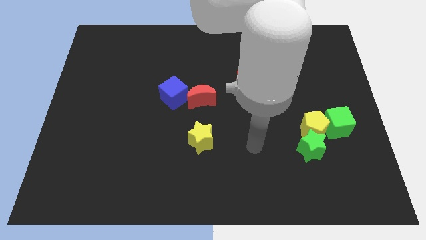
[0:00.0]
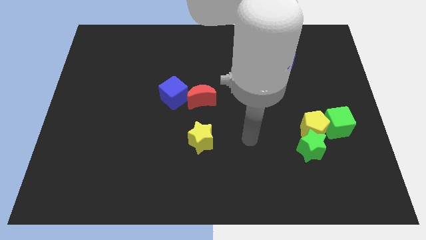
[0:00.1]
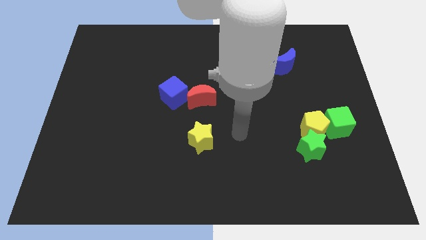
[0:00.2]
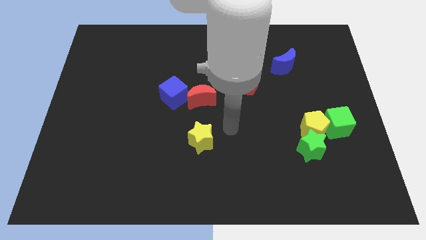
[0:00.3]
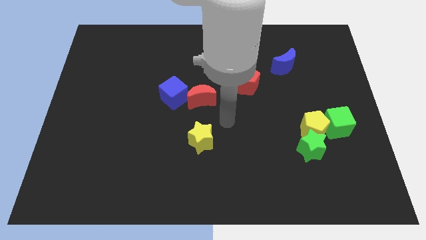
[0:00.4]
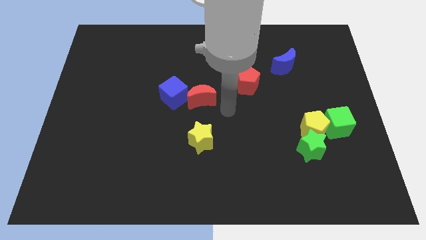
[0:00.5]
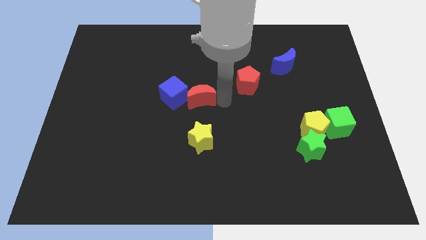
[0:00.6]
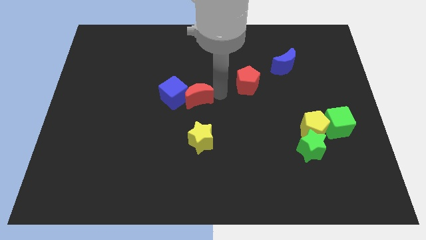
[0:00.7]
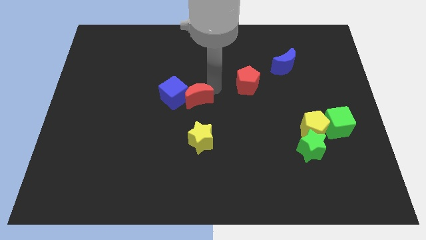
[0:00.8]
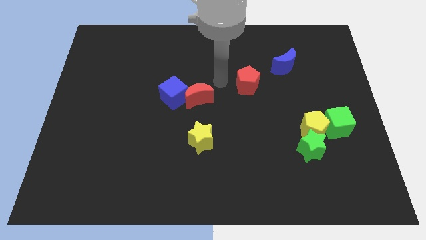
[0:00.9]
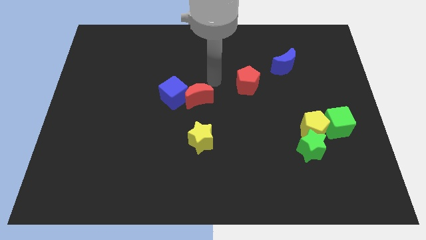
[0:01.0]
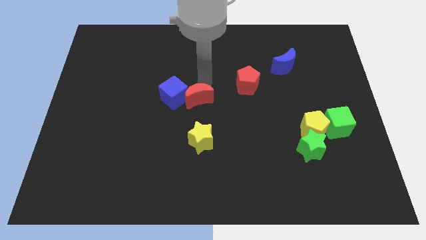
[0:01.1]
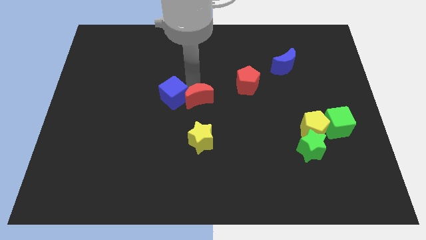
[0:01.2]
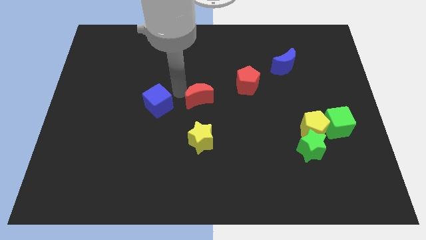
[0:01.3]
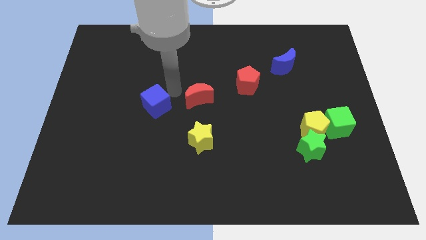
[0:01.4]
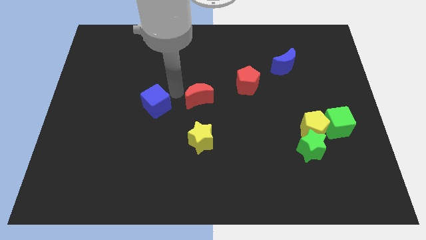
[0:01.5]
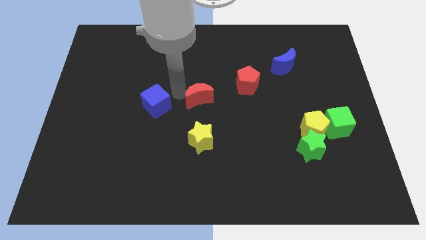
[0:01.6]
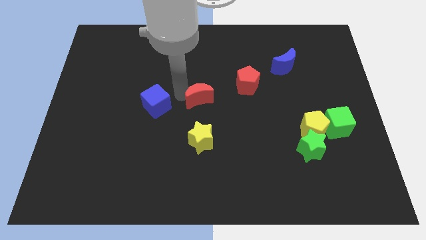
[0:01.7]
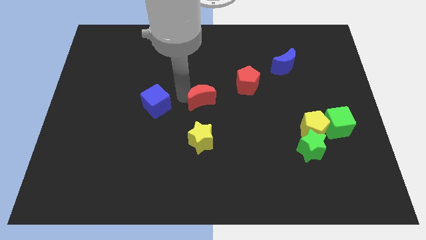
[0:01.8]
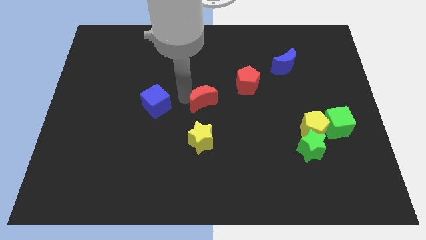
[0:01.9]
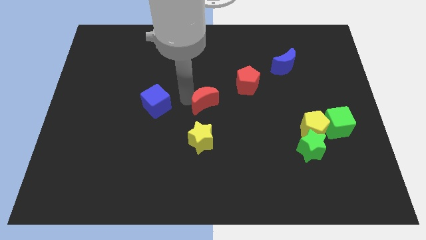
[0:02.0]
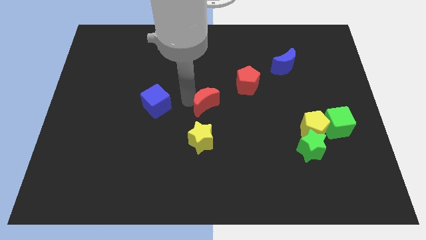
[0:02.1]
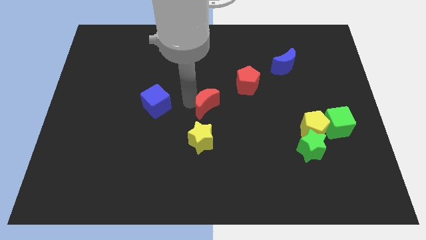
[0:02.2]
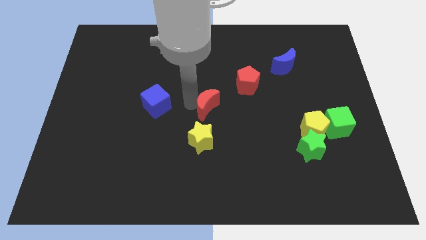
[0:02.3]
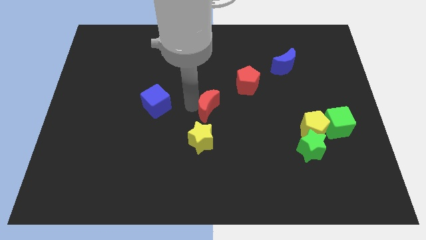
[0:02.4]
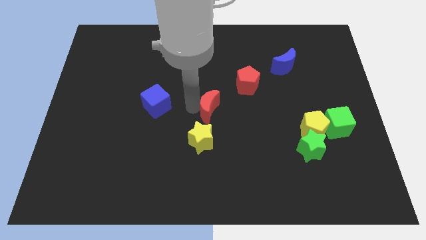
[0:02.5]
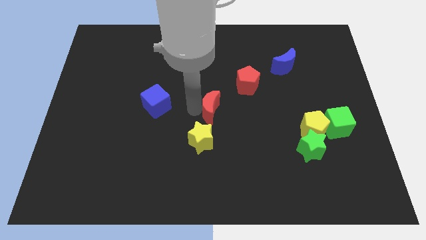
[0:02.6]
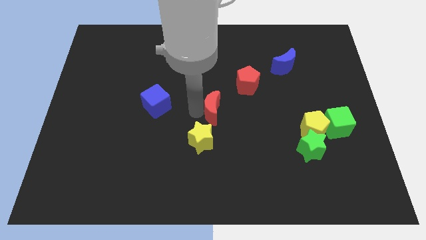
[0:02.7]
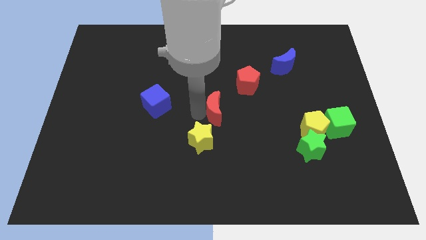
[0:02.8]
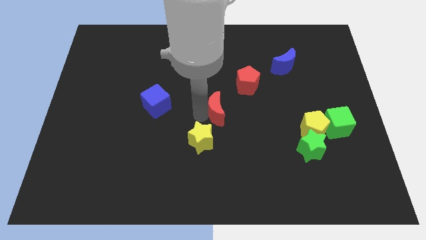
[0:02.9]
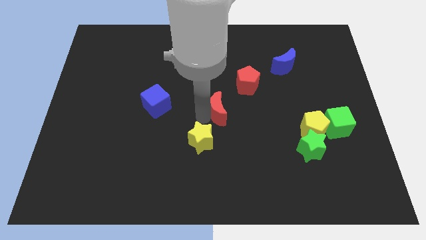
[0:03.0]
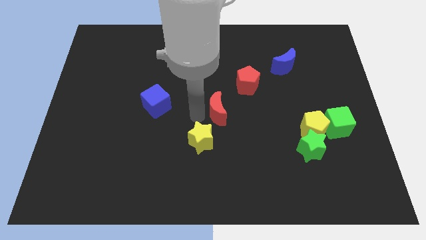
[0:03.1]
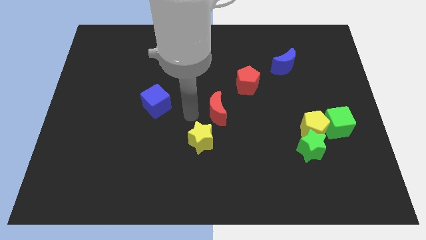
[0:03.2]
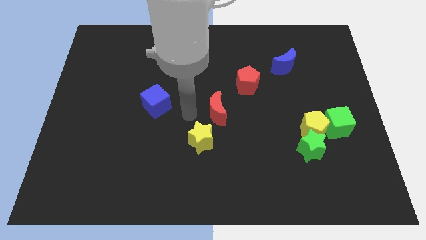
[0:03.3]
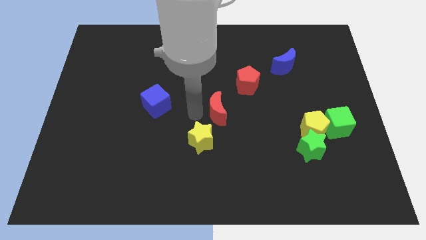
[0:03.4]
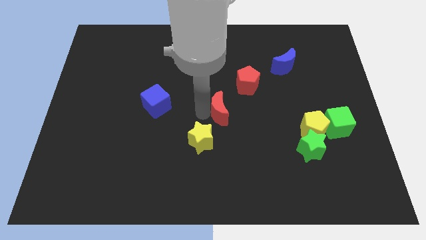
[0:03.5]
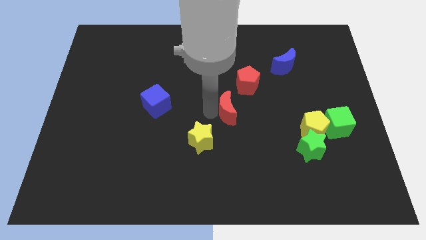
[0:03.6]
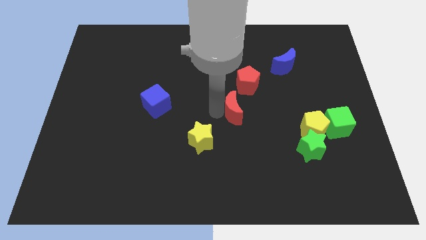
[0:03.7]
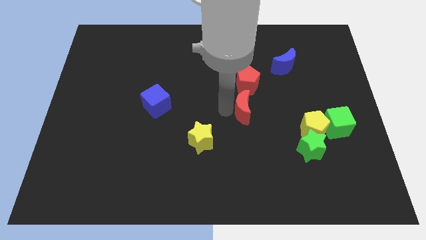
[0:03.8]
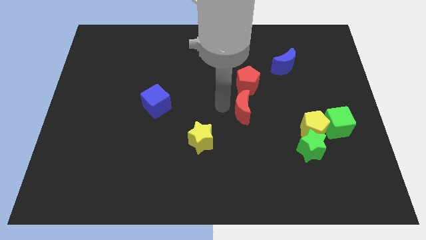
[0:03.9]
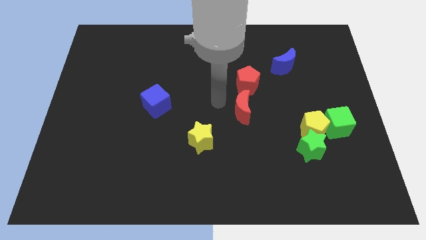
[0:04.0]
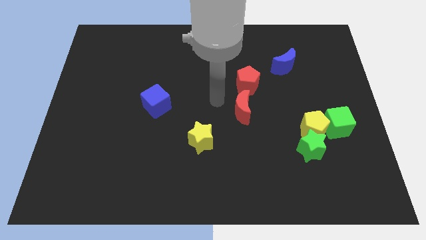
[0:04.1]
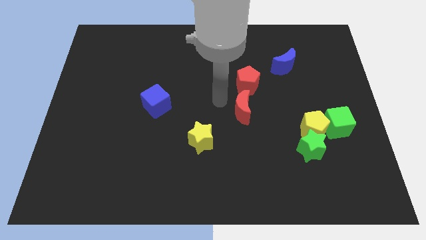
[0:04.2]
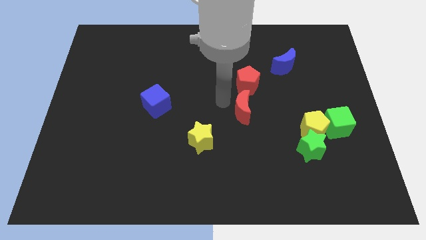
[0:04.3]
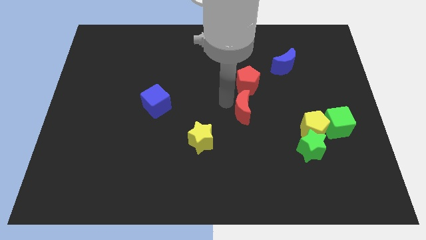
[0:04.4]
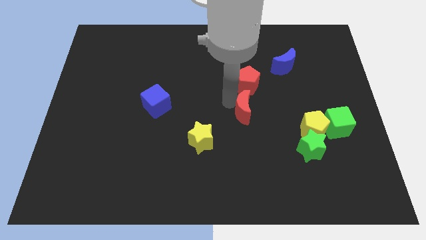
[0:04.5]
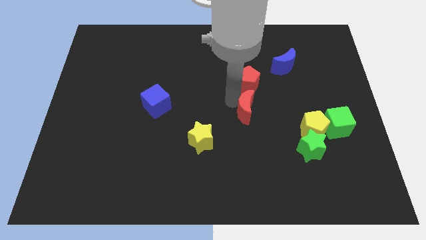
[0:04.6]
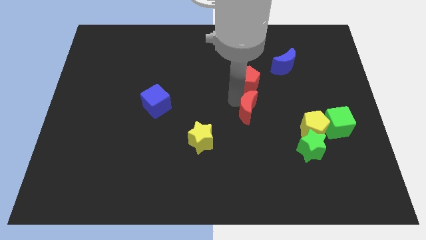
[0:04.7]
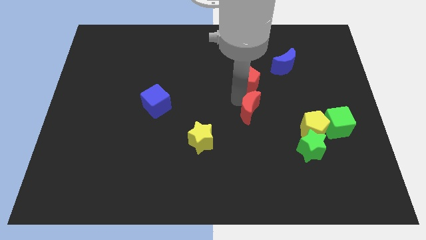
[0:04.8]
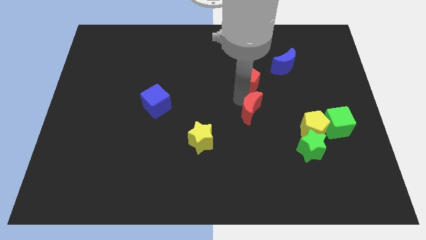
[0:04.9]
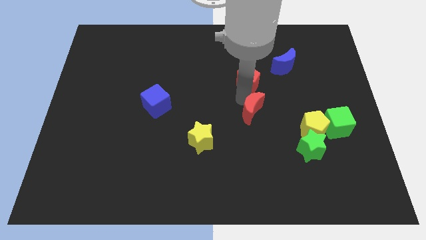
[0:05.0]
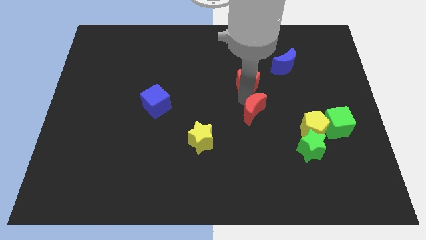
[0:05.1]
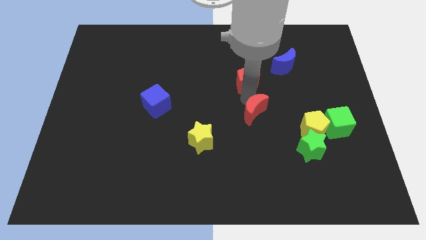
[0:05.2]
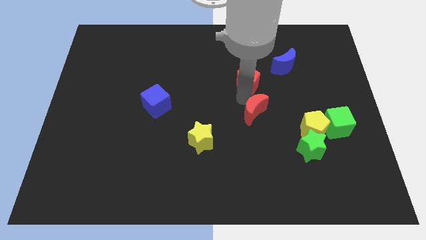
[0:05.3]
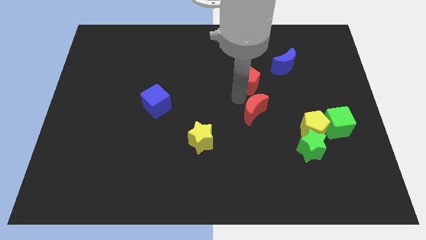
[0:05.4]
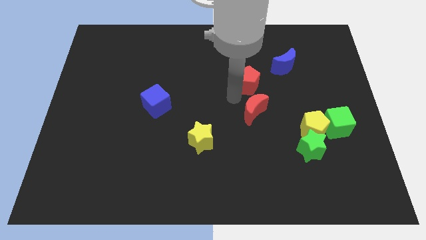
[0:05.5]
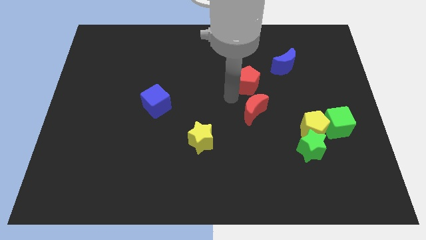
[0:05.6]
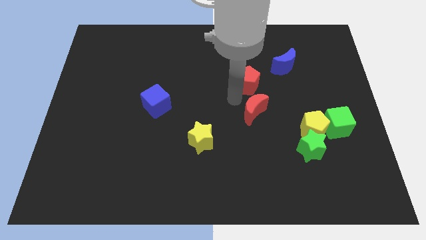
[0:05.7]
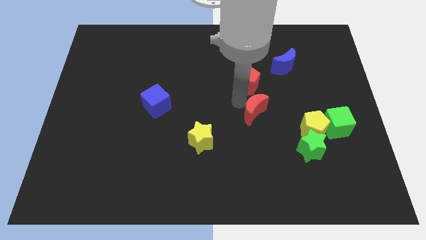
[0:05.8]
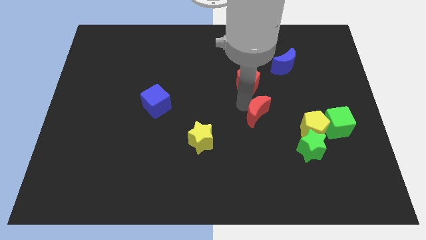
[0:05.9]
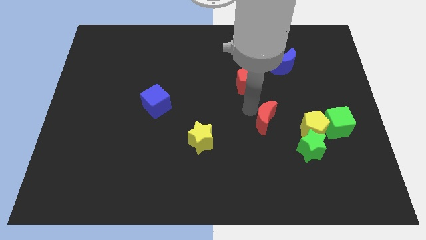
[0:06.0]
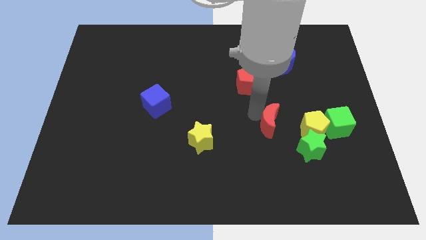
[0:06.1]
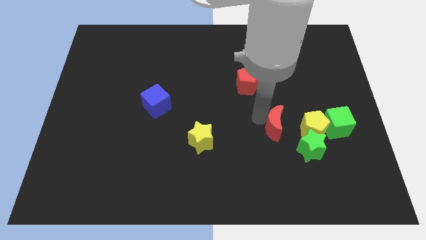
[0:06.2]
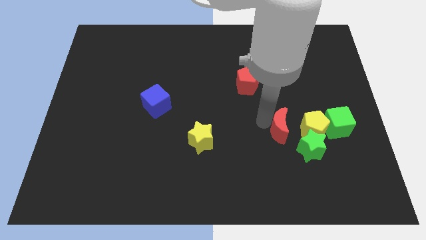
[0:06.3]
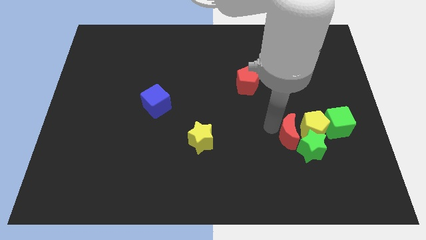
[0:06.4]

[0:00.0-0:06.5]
put the red moon towards the yellow pentagon
